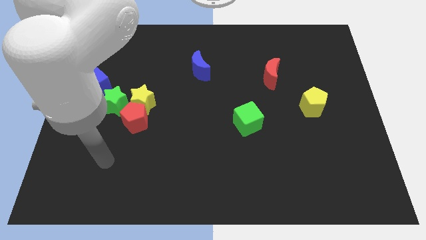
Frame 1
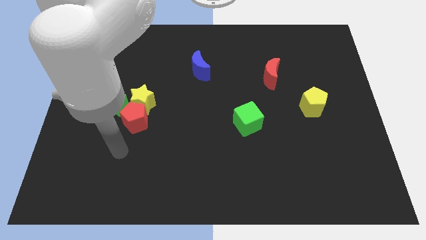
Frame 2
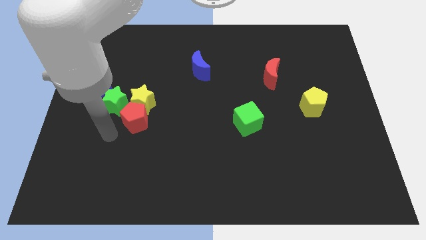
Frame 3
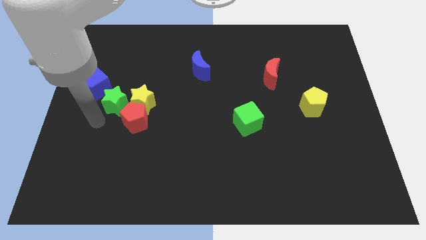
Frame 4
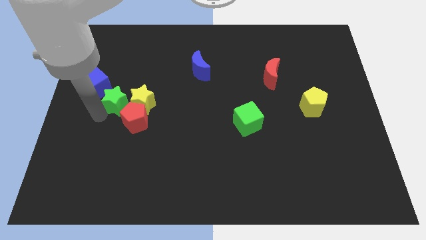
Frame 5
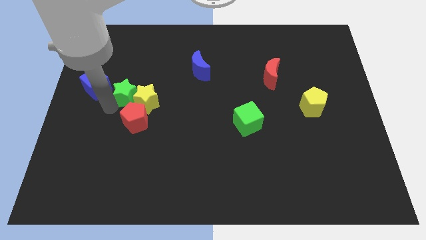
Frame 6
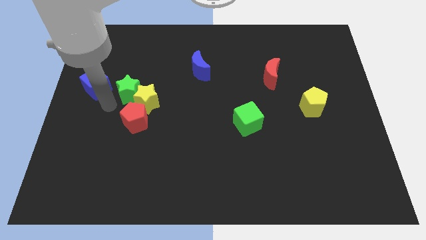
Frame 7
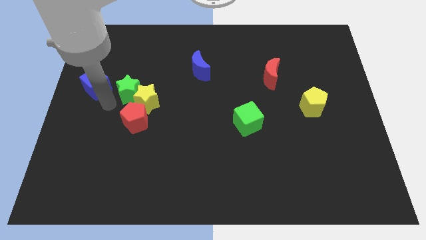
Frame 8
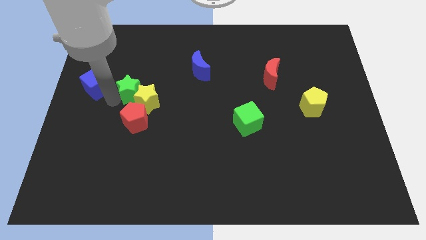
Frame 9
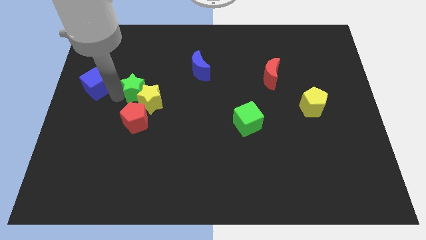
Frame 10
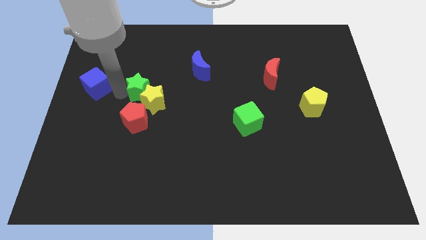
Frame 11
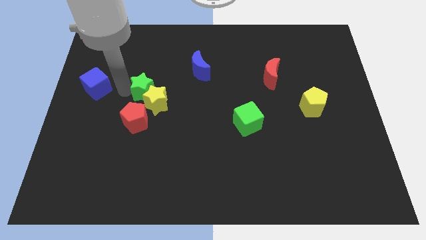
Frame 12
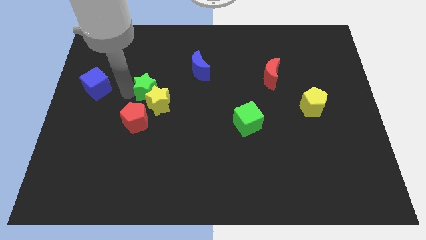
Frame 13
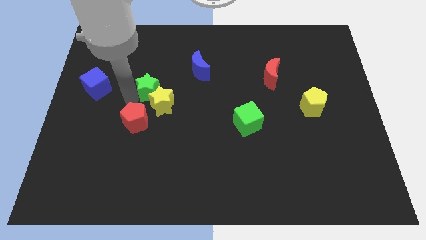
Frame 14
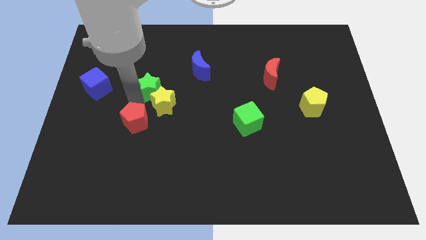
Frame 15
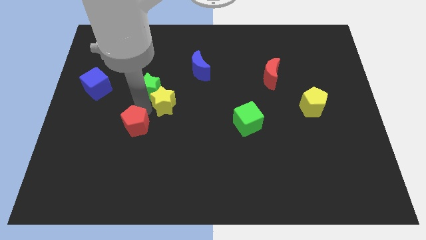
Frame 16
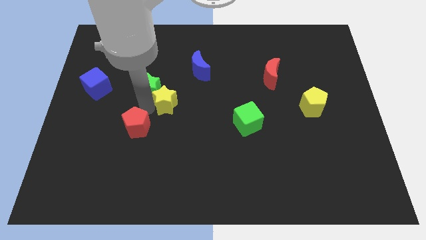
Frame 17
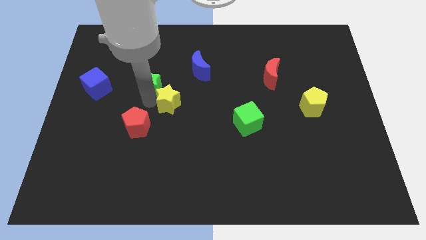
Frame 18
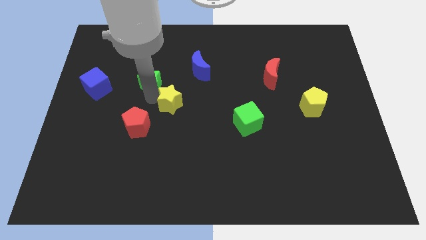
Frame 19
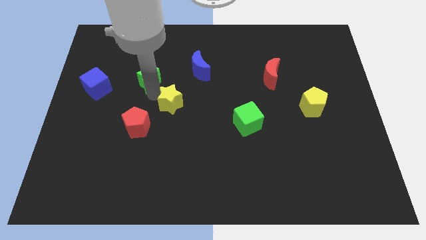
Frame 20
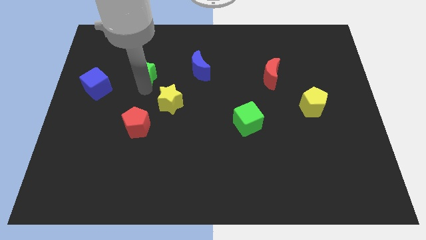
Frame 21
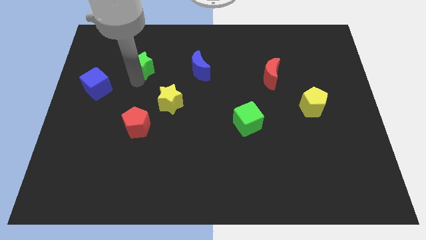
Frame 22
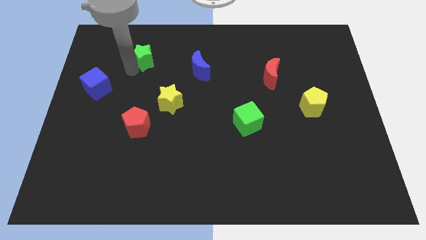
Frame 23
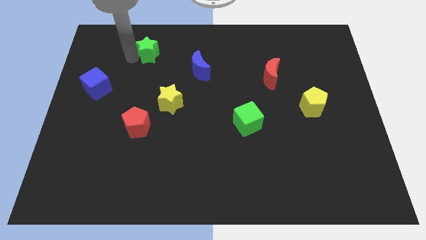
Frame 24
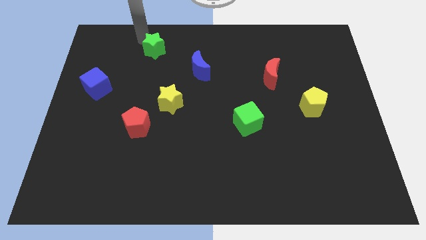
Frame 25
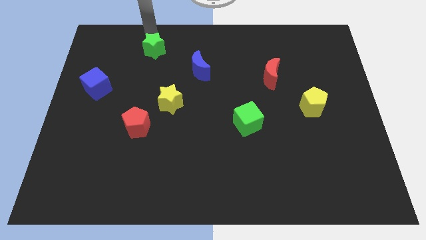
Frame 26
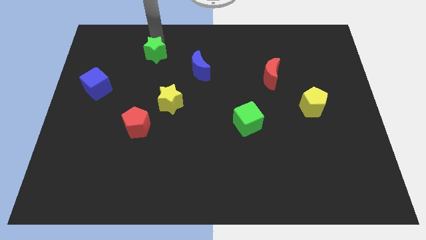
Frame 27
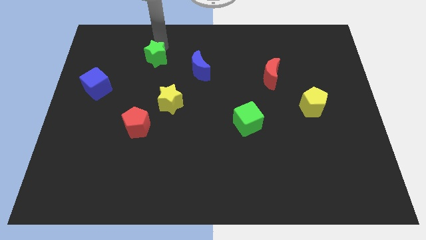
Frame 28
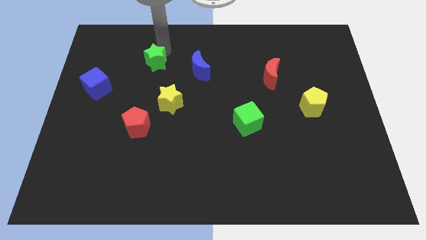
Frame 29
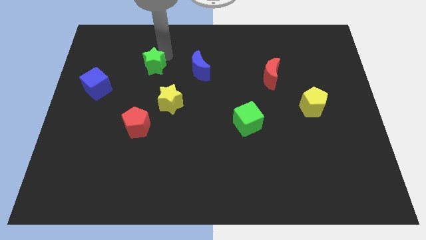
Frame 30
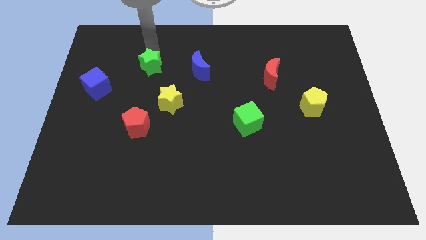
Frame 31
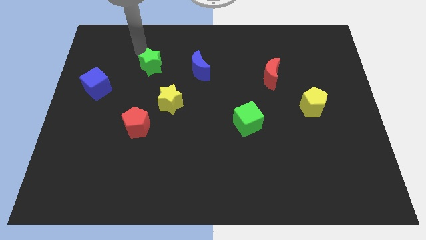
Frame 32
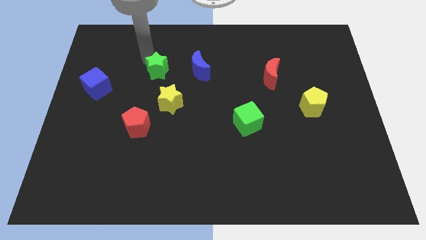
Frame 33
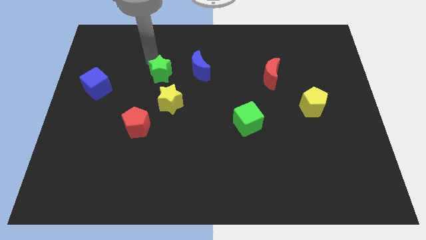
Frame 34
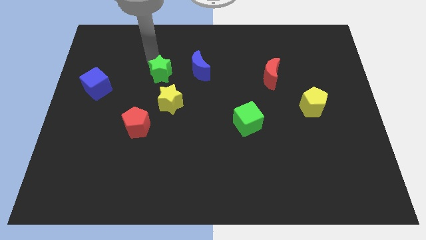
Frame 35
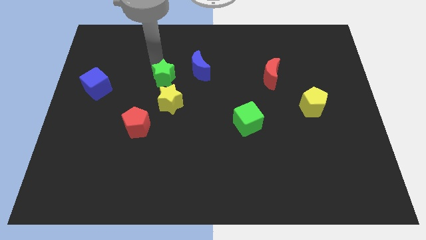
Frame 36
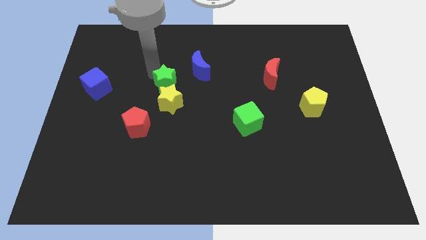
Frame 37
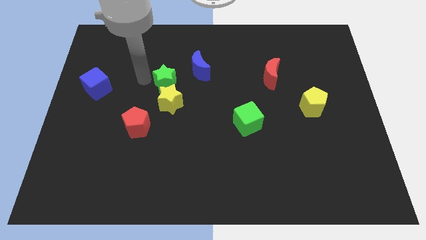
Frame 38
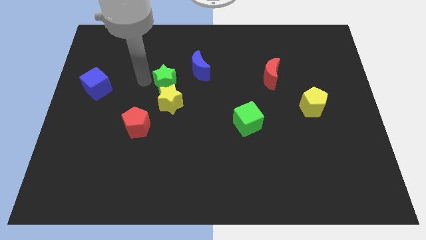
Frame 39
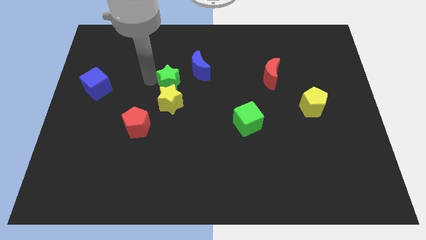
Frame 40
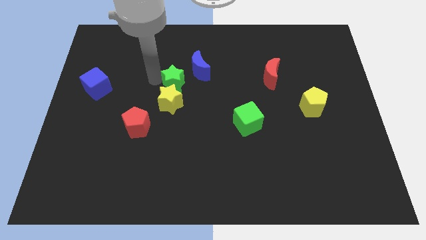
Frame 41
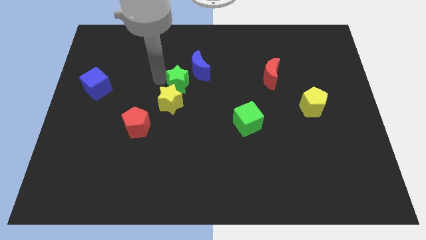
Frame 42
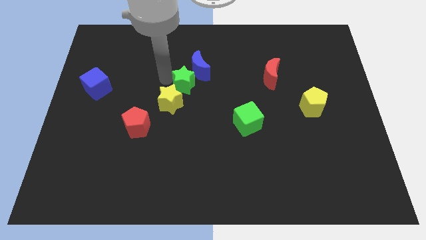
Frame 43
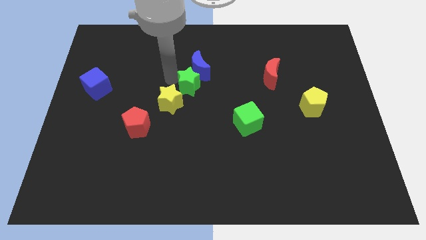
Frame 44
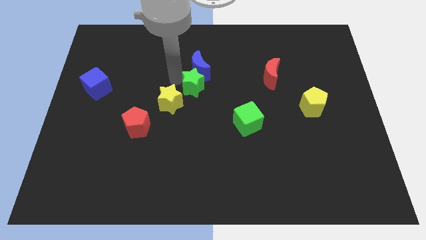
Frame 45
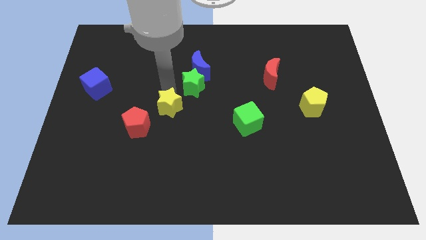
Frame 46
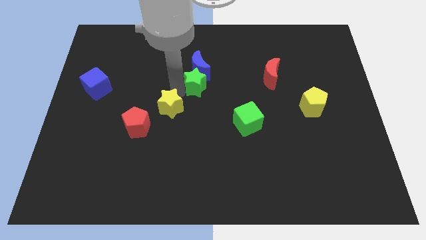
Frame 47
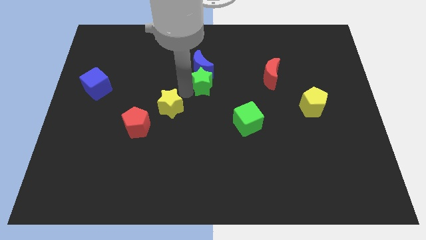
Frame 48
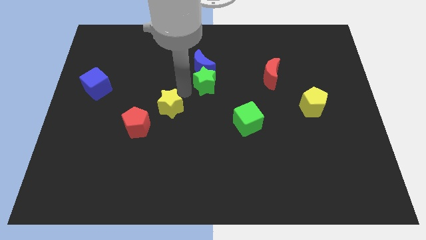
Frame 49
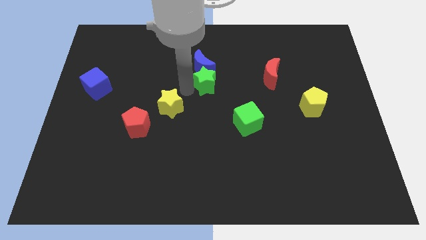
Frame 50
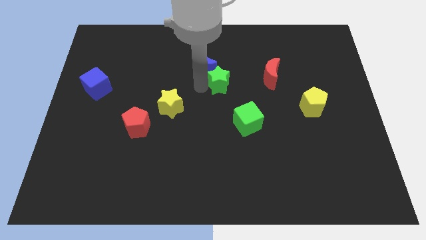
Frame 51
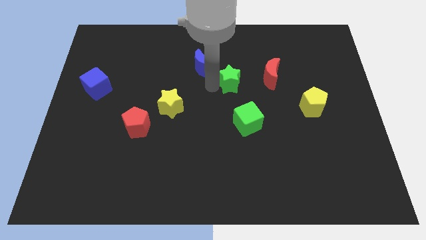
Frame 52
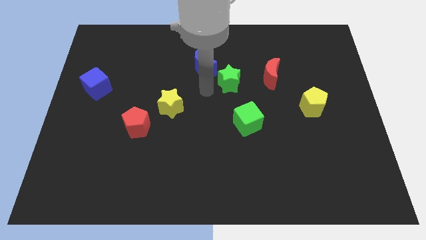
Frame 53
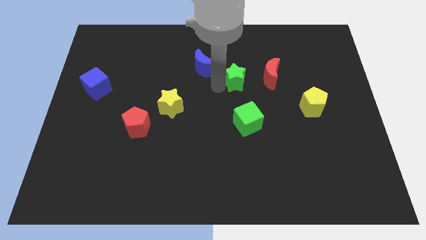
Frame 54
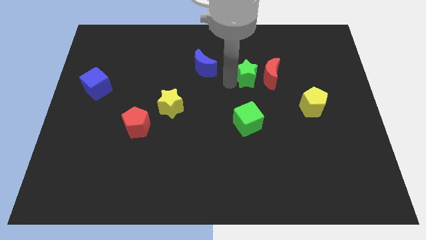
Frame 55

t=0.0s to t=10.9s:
put the green star to the red moon

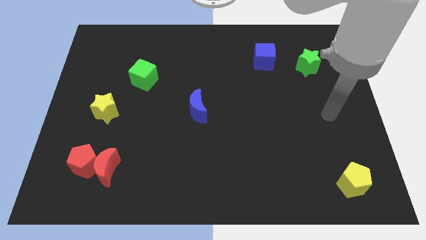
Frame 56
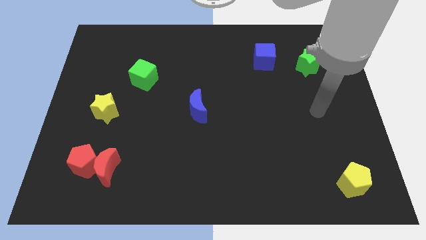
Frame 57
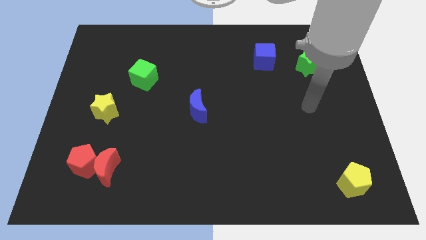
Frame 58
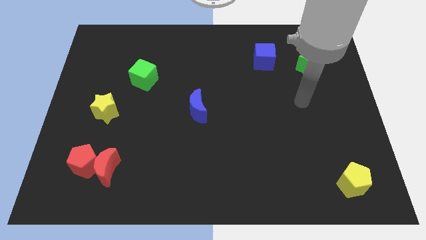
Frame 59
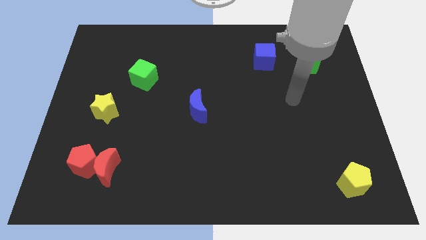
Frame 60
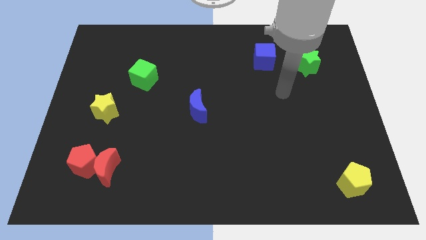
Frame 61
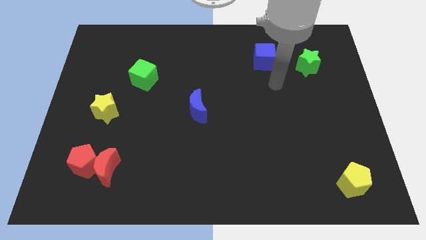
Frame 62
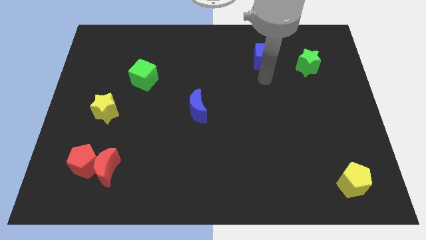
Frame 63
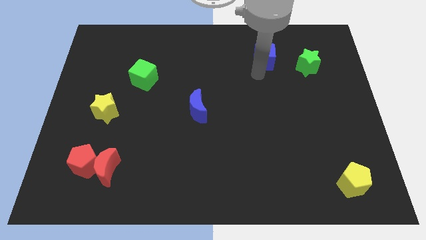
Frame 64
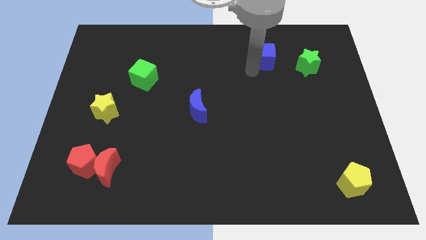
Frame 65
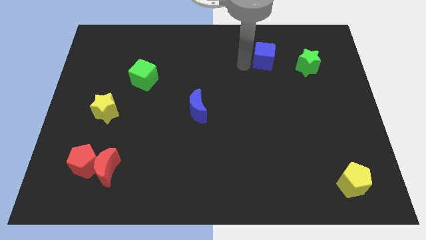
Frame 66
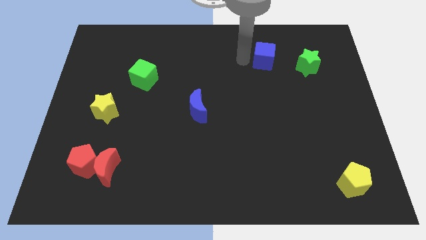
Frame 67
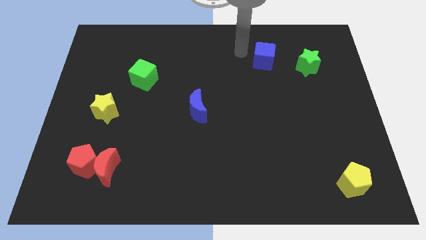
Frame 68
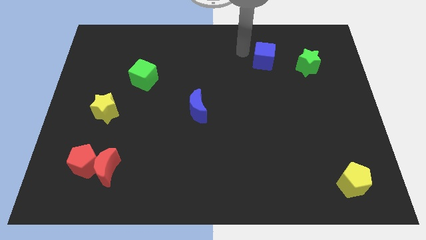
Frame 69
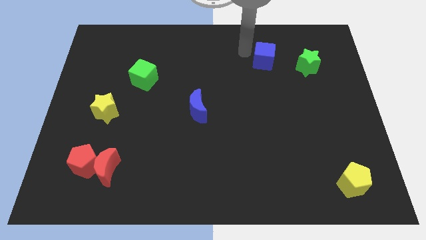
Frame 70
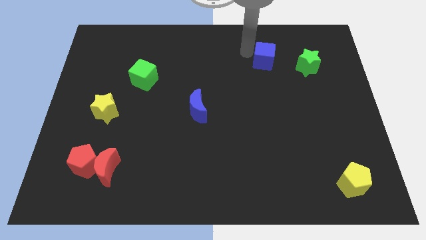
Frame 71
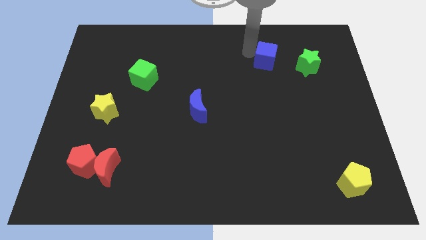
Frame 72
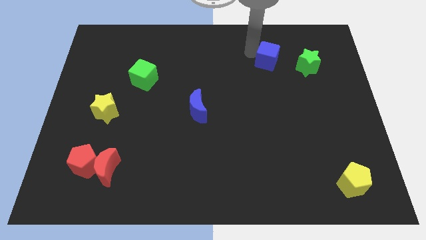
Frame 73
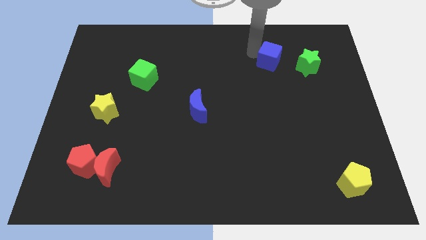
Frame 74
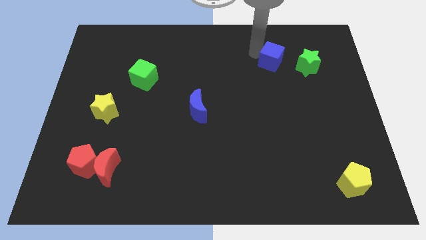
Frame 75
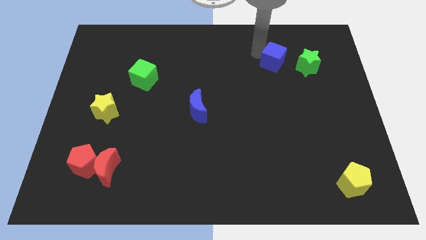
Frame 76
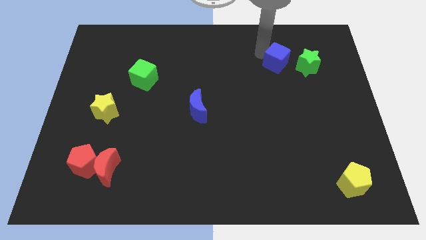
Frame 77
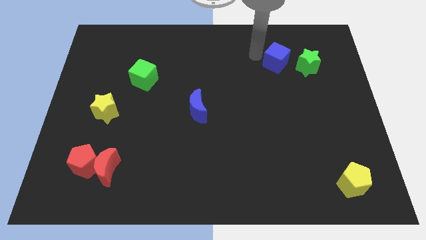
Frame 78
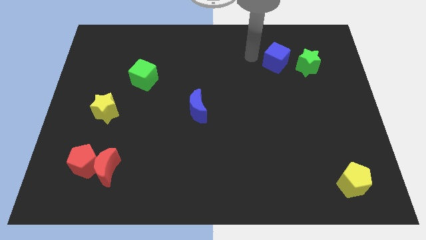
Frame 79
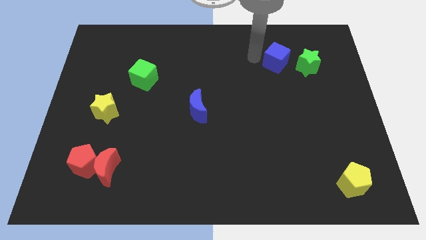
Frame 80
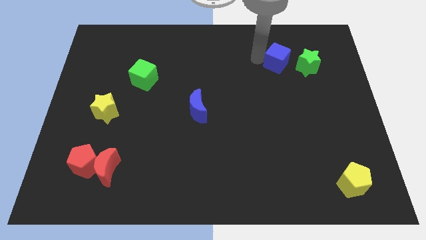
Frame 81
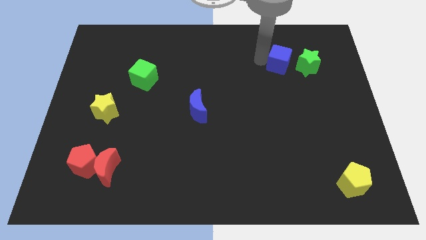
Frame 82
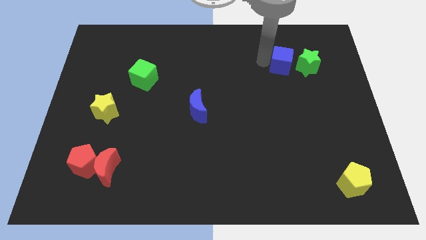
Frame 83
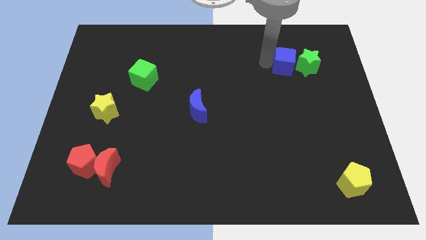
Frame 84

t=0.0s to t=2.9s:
move the blue cube next to the green star
